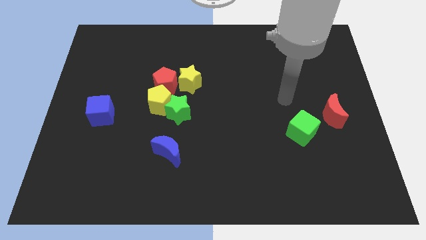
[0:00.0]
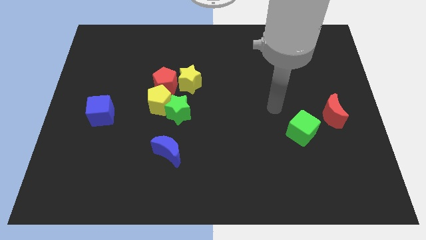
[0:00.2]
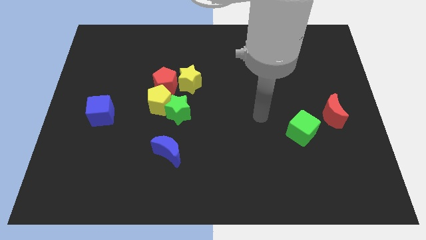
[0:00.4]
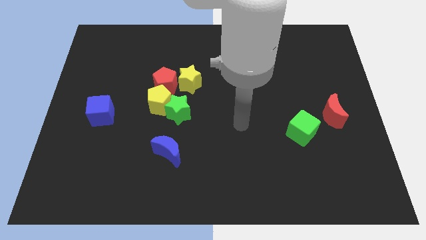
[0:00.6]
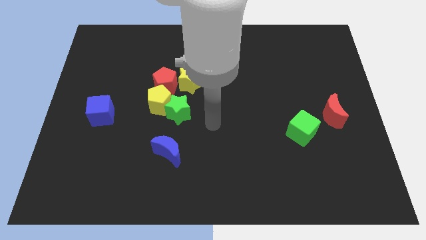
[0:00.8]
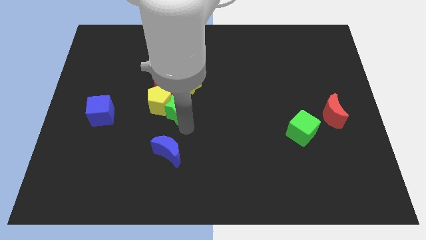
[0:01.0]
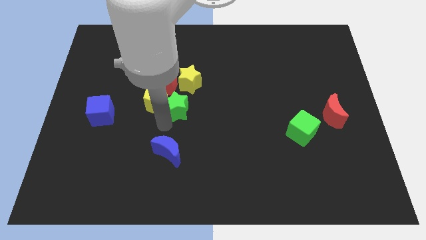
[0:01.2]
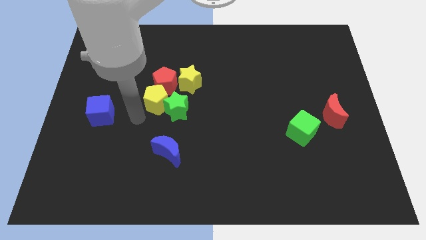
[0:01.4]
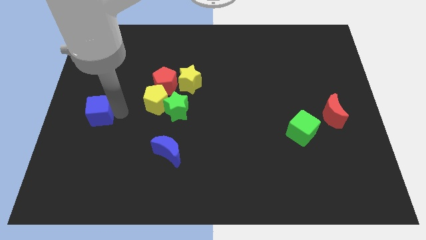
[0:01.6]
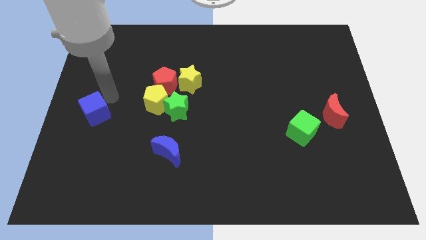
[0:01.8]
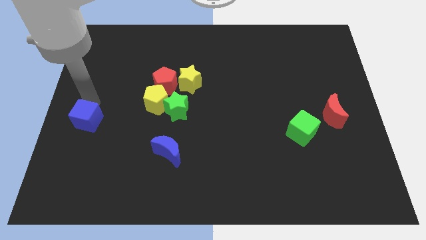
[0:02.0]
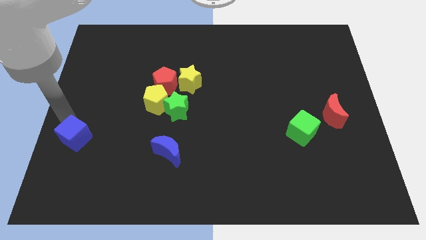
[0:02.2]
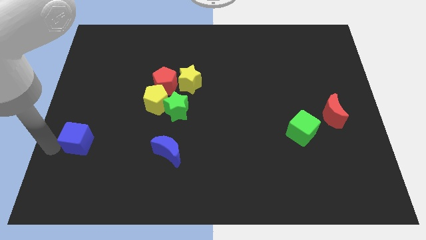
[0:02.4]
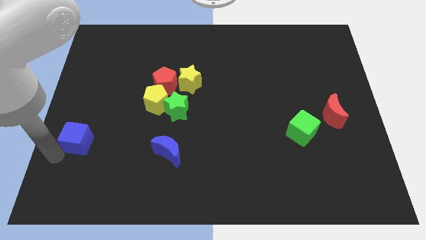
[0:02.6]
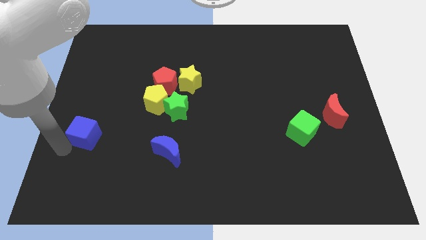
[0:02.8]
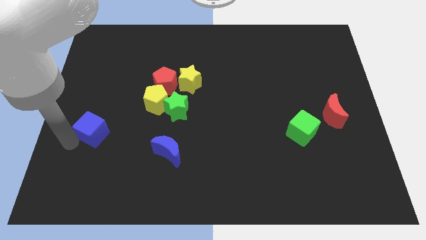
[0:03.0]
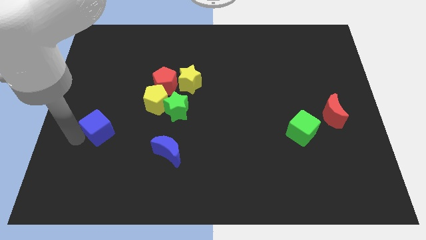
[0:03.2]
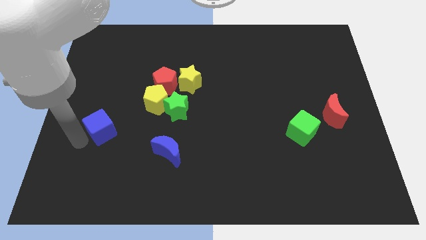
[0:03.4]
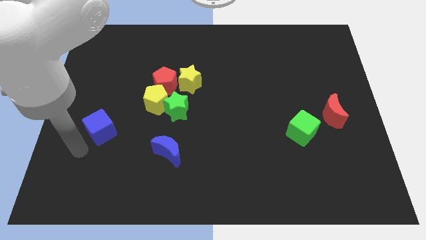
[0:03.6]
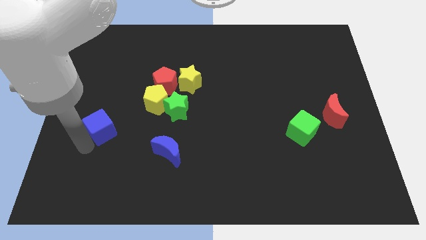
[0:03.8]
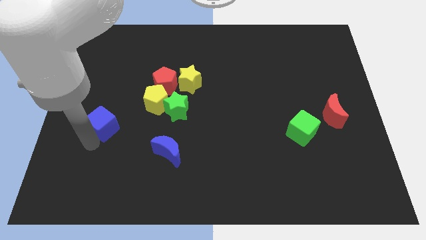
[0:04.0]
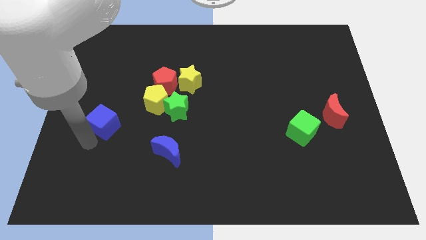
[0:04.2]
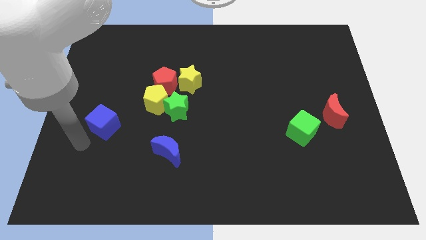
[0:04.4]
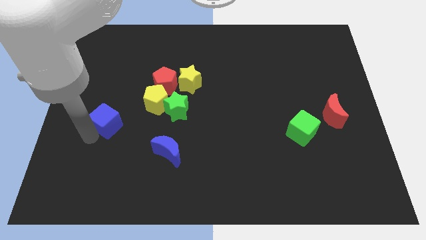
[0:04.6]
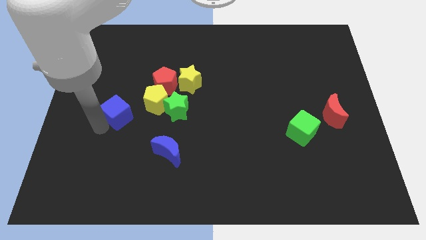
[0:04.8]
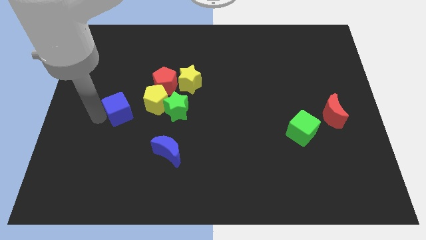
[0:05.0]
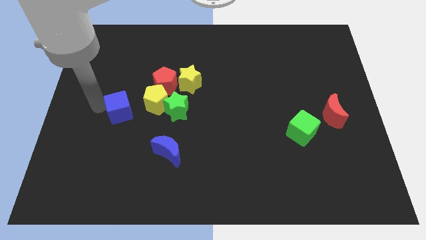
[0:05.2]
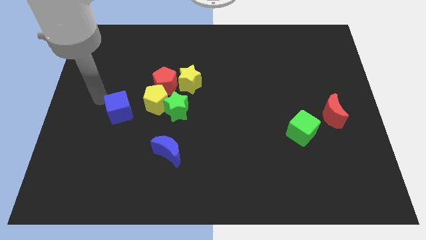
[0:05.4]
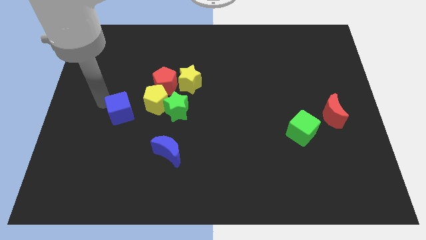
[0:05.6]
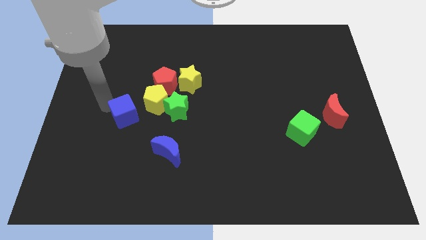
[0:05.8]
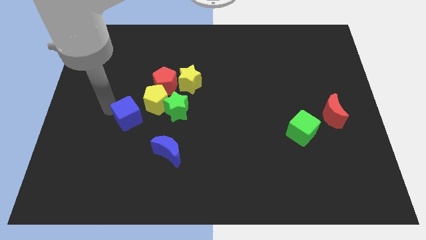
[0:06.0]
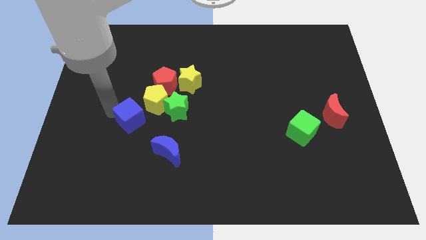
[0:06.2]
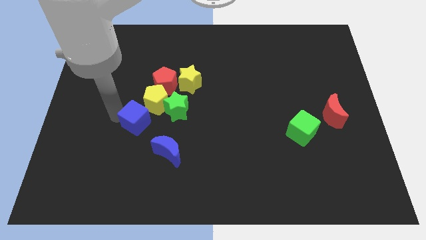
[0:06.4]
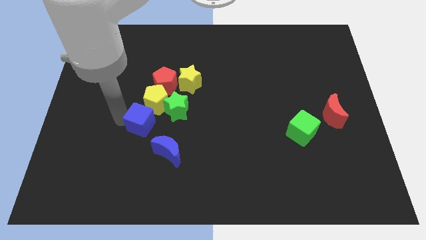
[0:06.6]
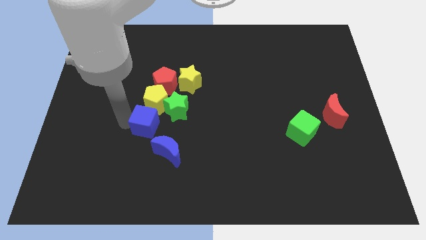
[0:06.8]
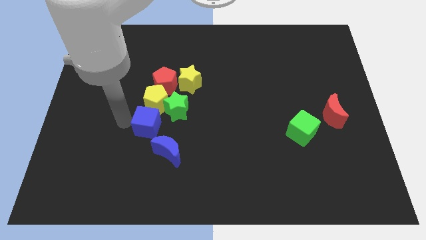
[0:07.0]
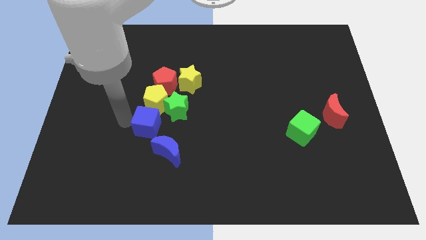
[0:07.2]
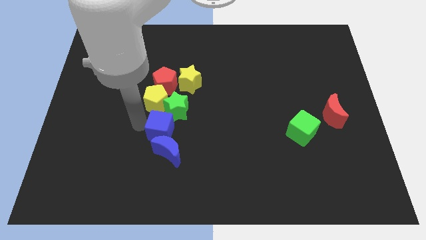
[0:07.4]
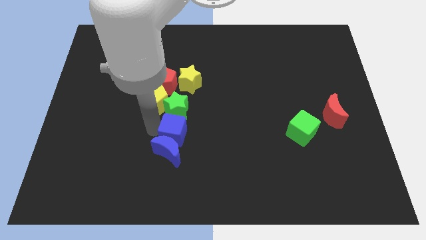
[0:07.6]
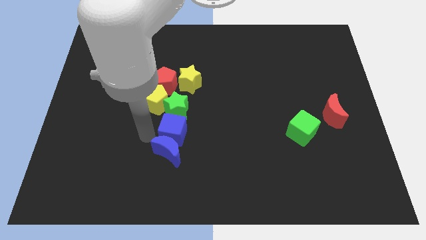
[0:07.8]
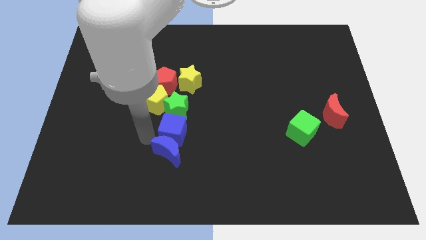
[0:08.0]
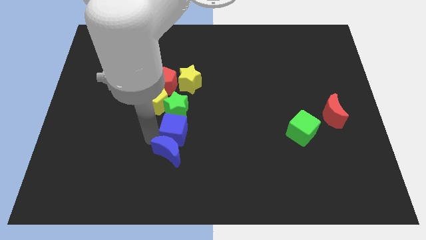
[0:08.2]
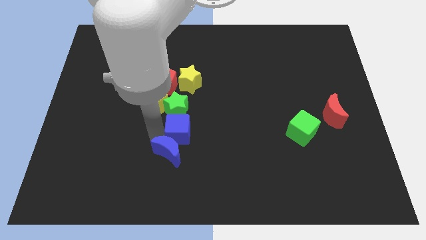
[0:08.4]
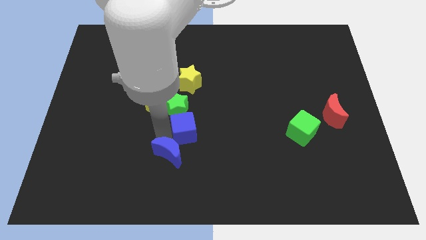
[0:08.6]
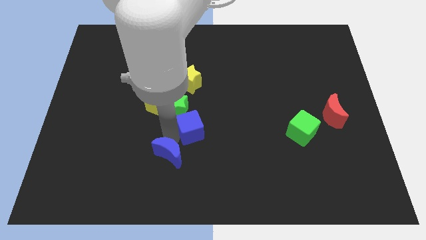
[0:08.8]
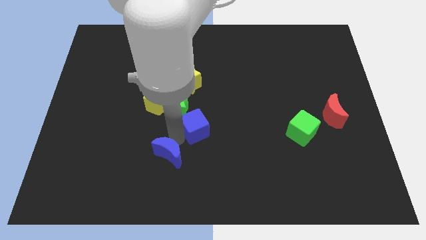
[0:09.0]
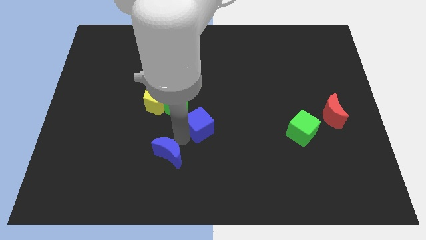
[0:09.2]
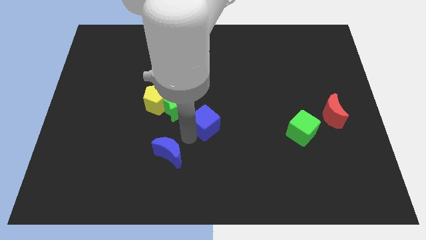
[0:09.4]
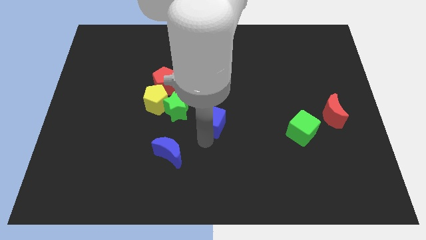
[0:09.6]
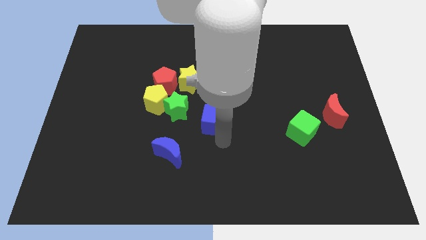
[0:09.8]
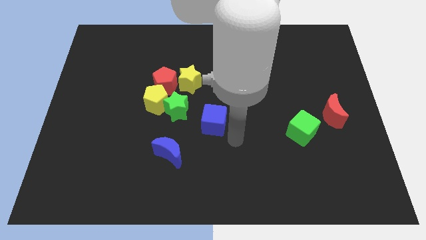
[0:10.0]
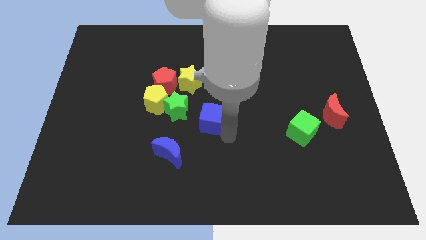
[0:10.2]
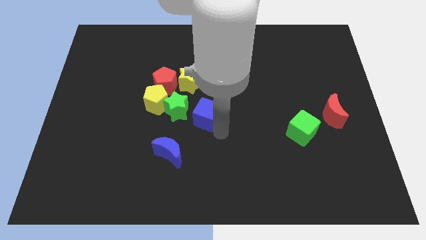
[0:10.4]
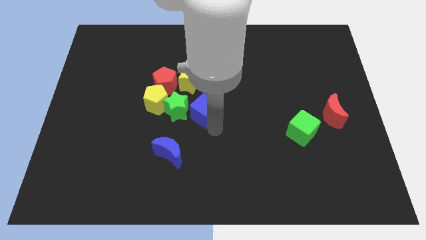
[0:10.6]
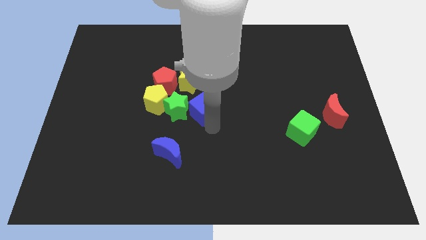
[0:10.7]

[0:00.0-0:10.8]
push the blue cube diagonally down and to the right of the red pentagon

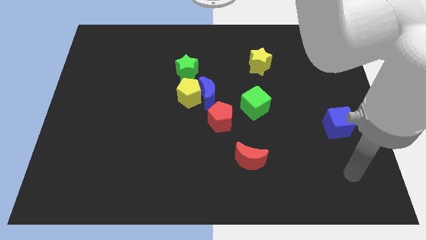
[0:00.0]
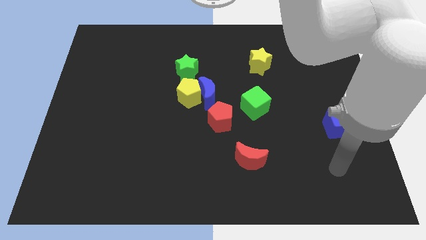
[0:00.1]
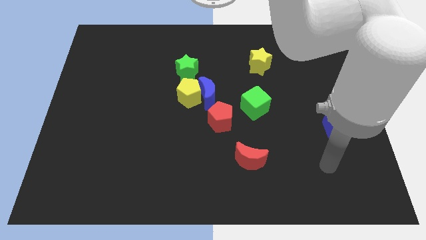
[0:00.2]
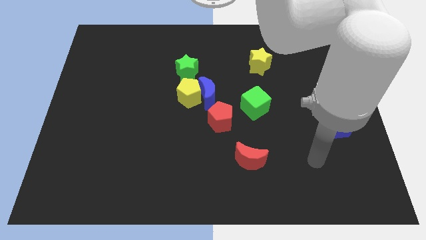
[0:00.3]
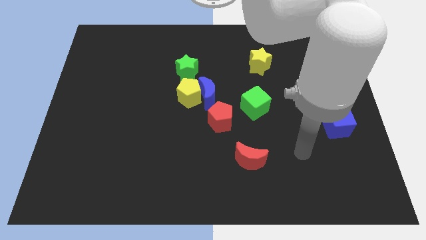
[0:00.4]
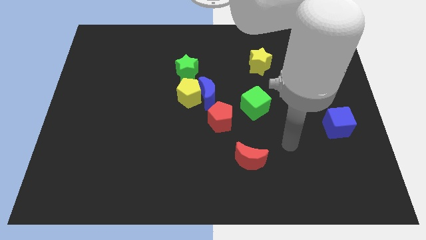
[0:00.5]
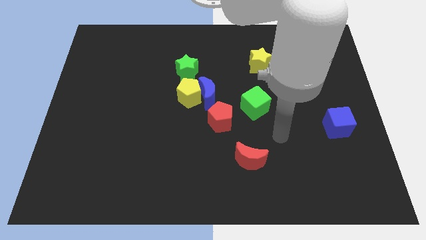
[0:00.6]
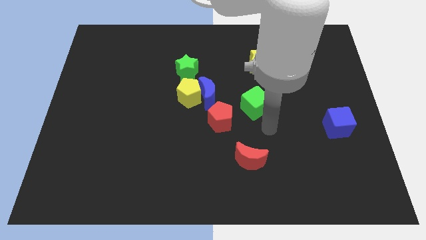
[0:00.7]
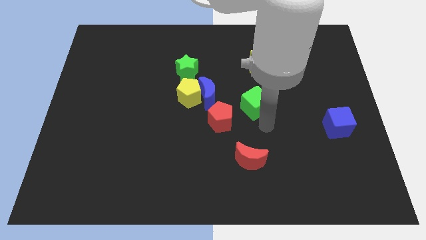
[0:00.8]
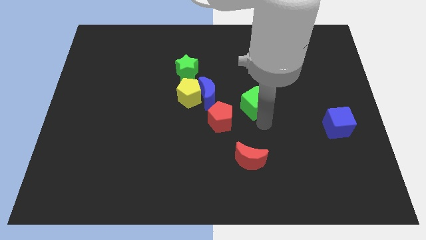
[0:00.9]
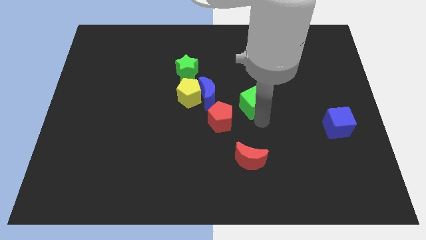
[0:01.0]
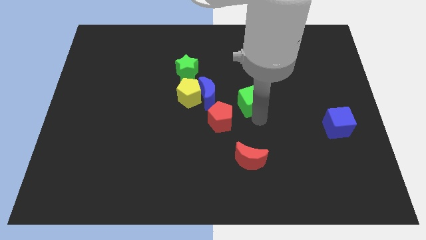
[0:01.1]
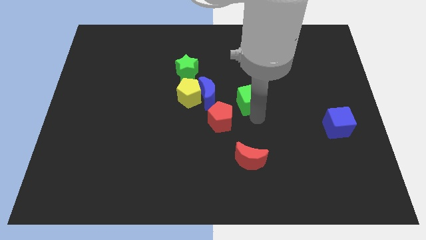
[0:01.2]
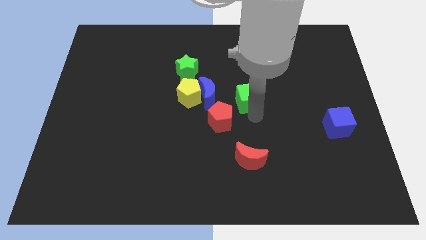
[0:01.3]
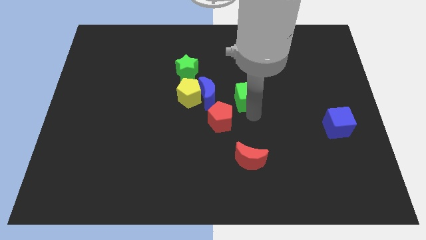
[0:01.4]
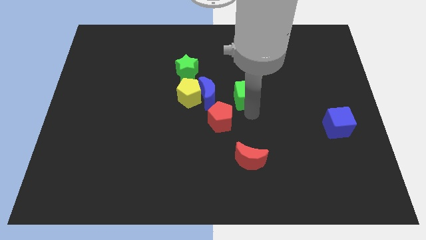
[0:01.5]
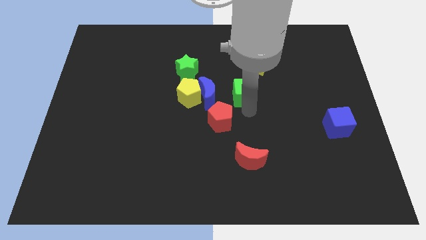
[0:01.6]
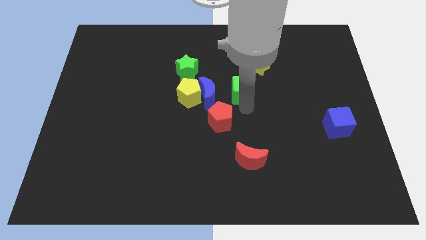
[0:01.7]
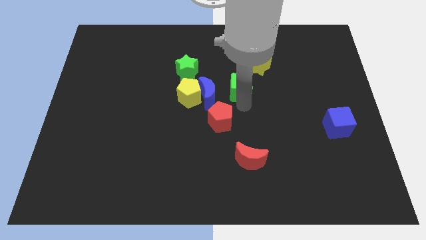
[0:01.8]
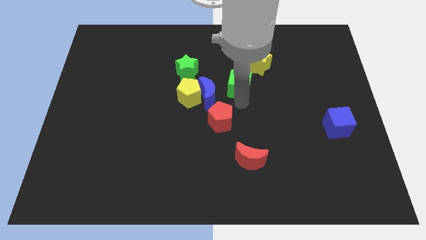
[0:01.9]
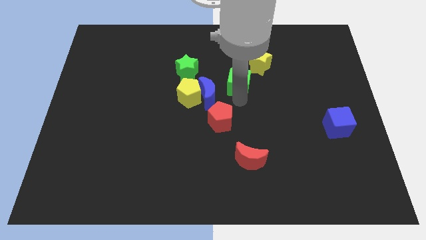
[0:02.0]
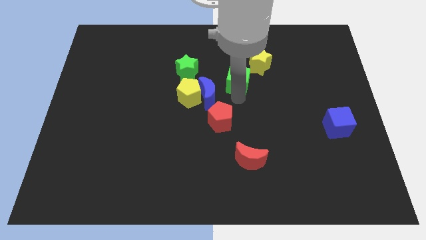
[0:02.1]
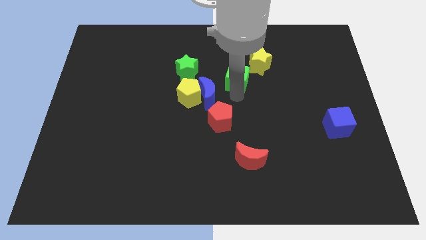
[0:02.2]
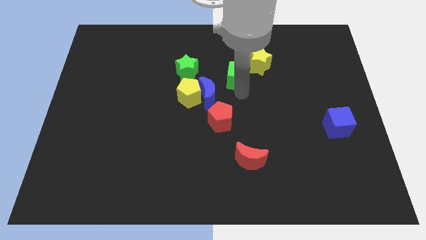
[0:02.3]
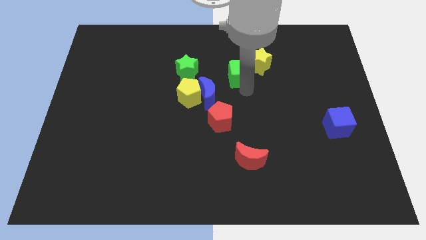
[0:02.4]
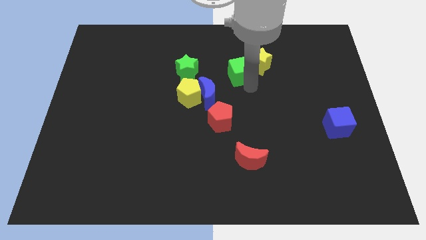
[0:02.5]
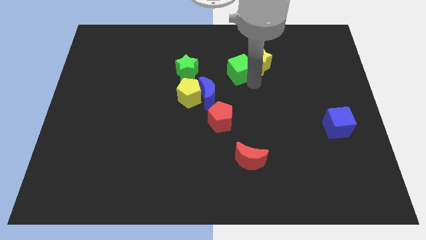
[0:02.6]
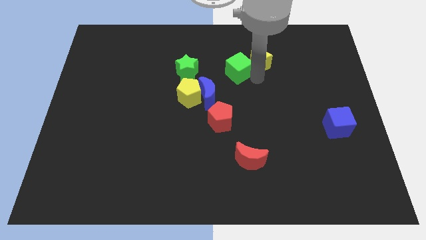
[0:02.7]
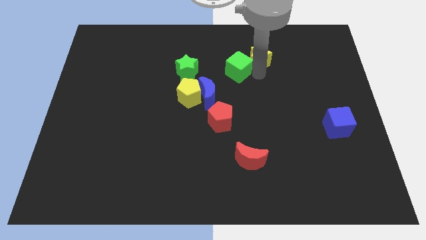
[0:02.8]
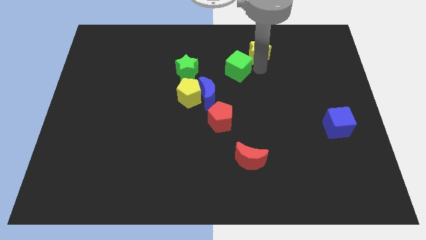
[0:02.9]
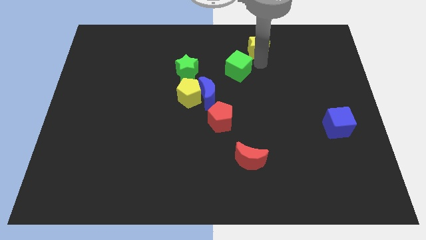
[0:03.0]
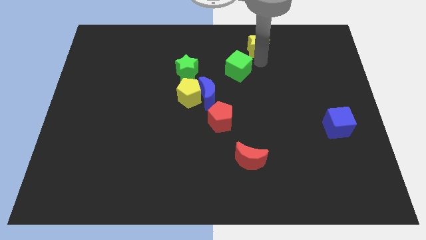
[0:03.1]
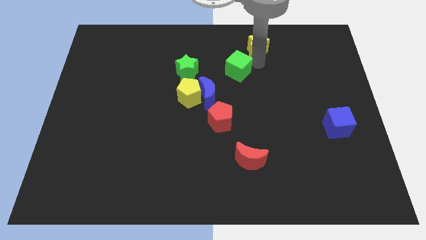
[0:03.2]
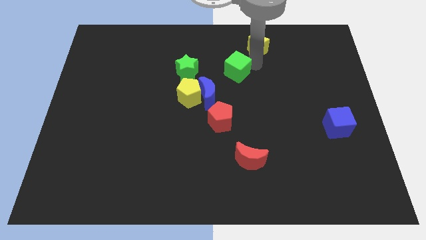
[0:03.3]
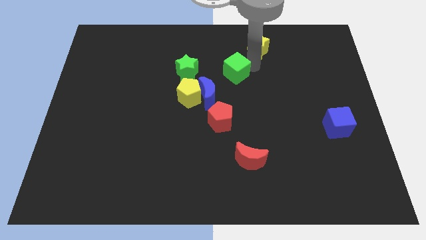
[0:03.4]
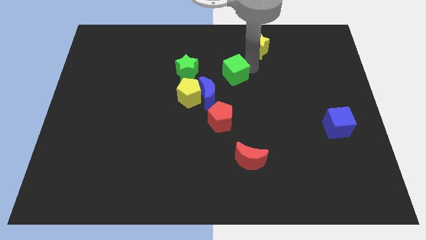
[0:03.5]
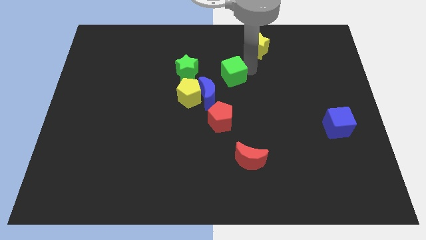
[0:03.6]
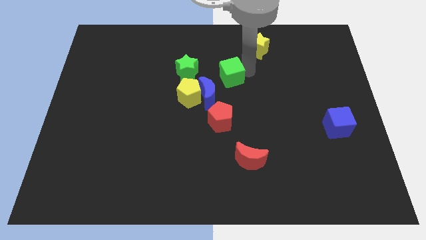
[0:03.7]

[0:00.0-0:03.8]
push the green cube diagonally up and to the right of the yellow pentagon
